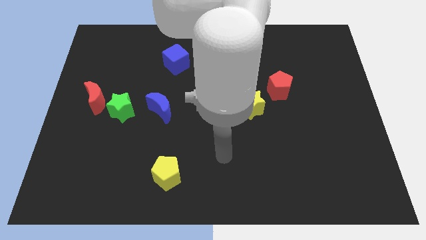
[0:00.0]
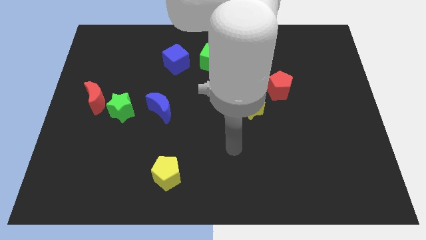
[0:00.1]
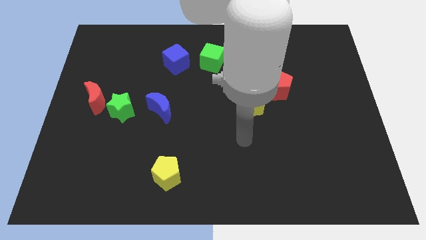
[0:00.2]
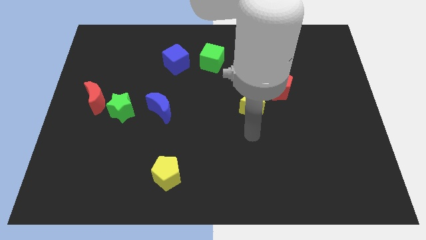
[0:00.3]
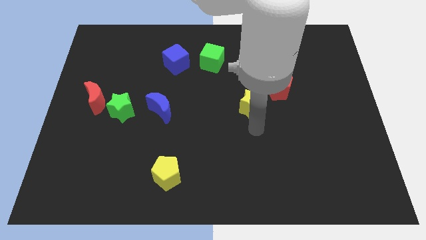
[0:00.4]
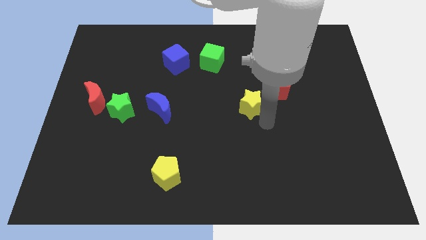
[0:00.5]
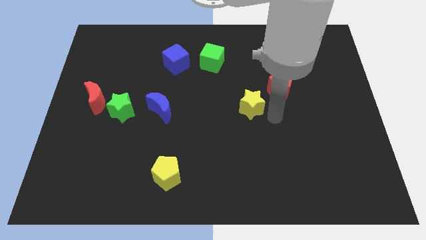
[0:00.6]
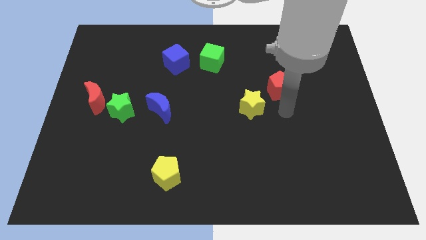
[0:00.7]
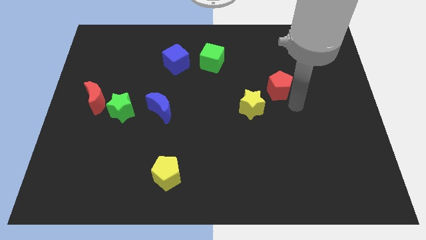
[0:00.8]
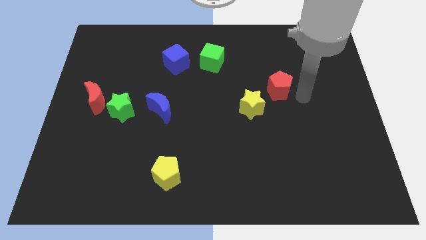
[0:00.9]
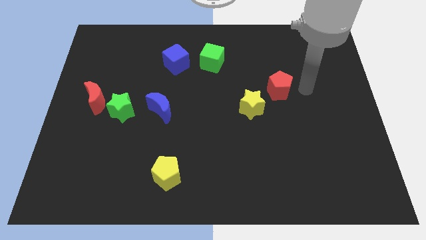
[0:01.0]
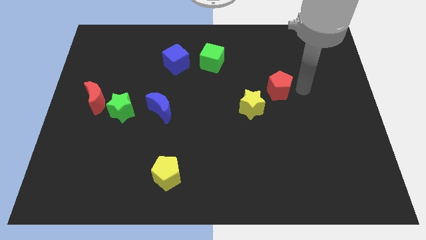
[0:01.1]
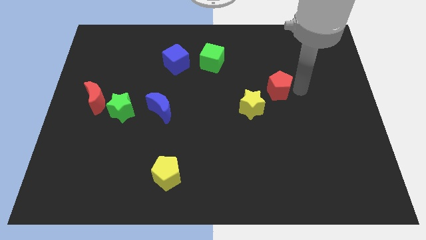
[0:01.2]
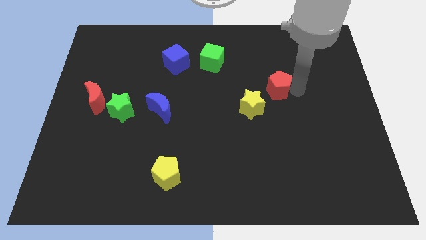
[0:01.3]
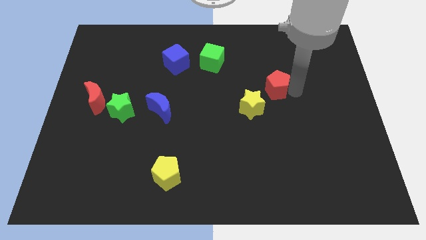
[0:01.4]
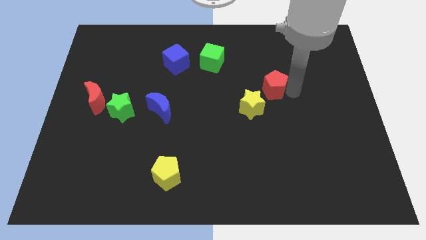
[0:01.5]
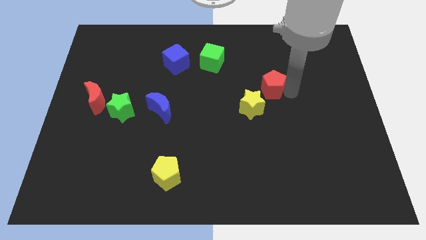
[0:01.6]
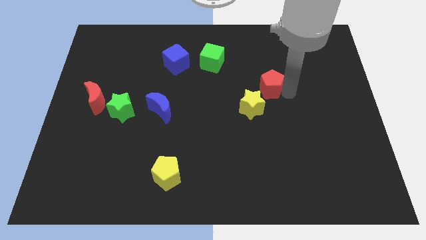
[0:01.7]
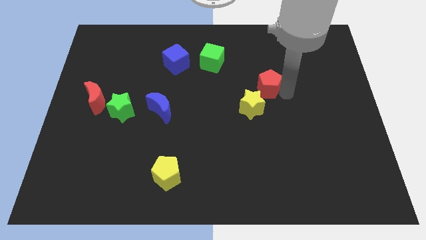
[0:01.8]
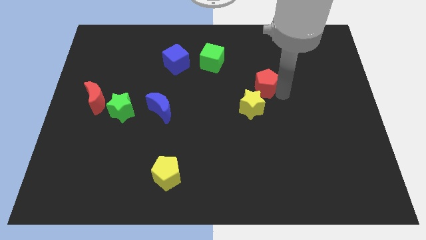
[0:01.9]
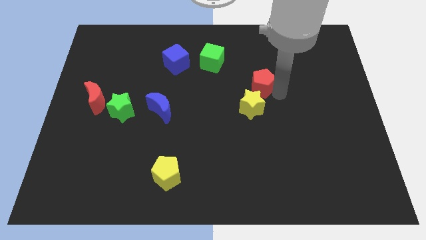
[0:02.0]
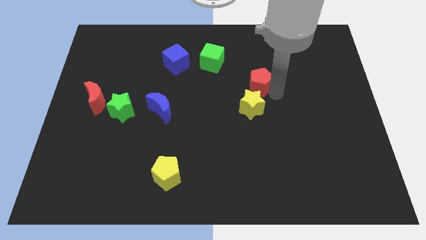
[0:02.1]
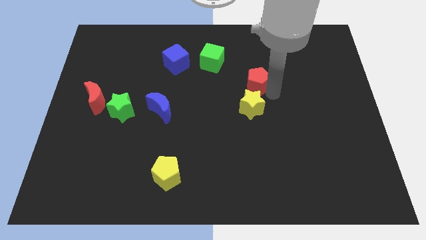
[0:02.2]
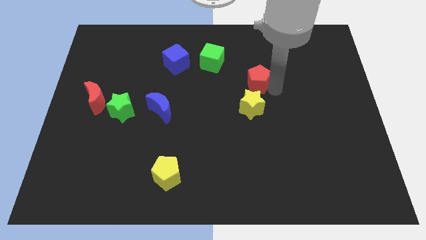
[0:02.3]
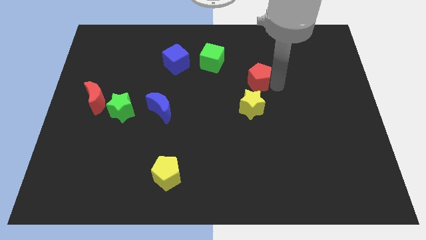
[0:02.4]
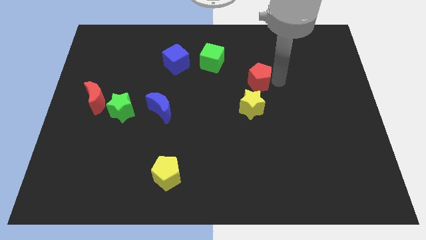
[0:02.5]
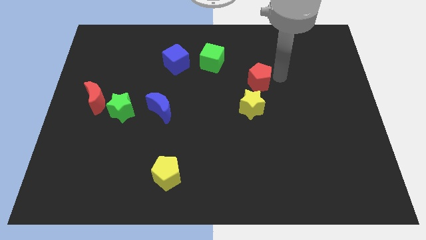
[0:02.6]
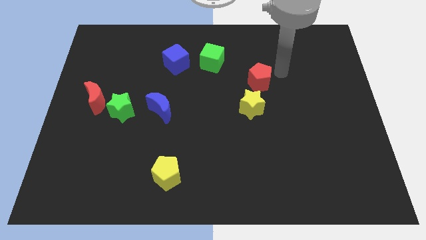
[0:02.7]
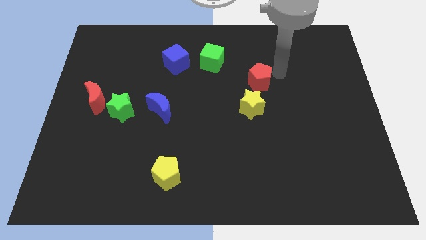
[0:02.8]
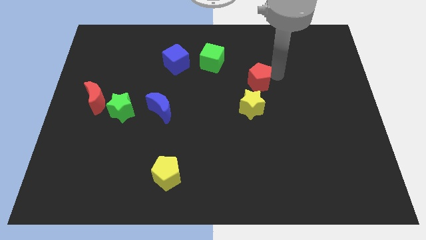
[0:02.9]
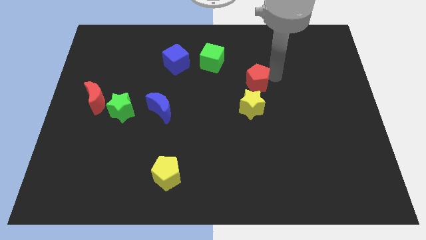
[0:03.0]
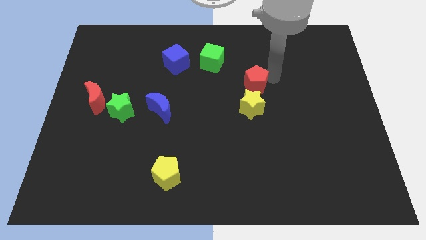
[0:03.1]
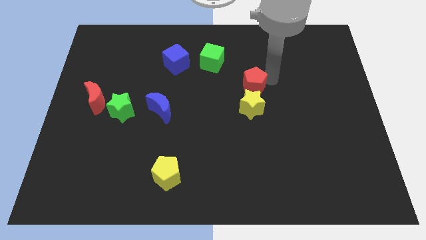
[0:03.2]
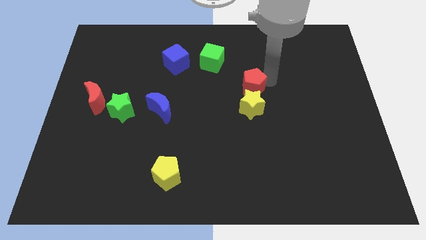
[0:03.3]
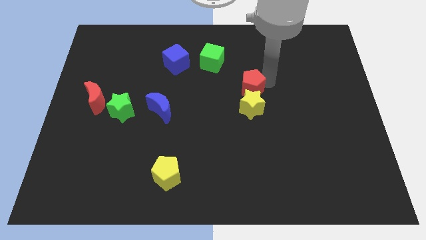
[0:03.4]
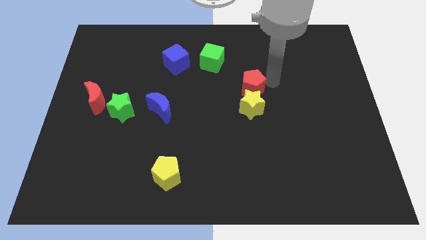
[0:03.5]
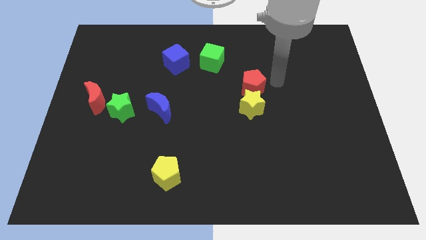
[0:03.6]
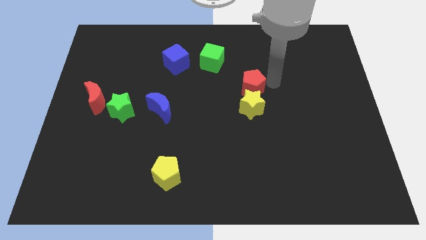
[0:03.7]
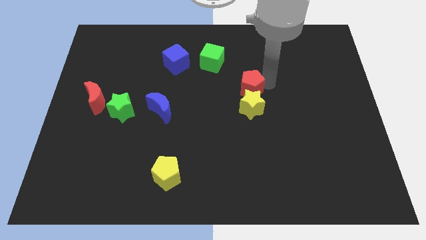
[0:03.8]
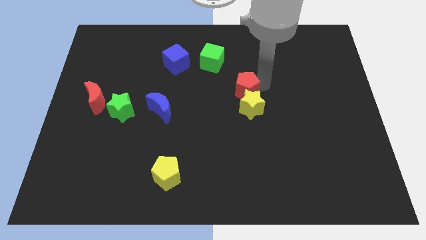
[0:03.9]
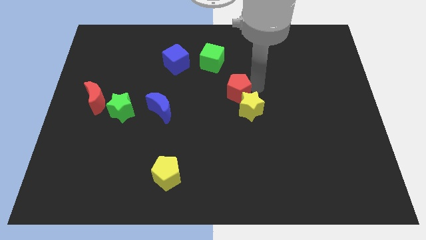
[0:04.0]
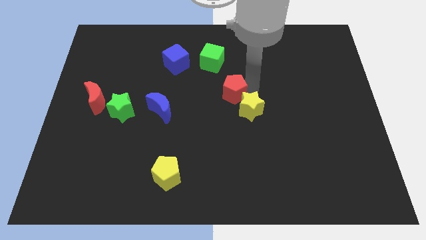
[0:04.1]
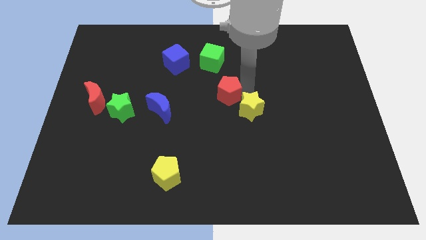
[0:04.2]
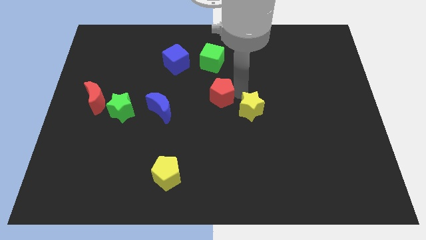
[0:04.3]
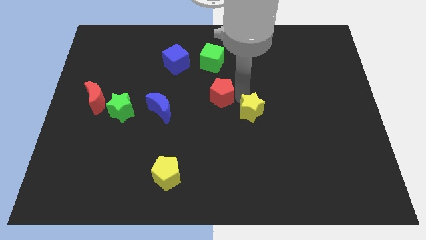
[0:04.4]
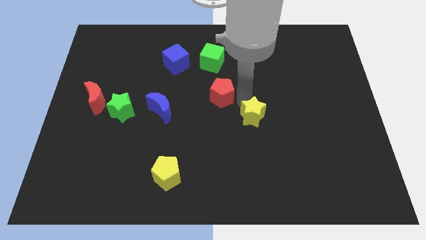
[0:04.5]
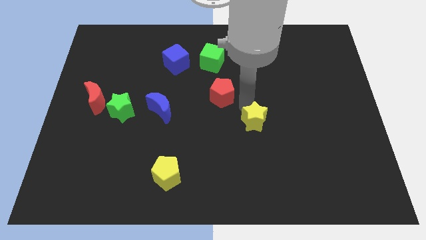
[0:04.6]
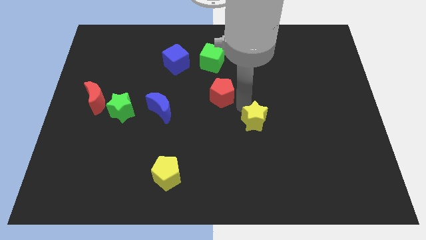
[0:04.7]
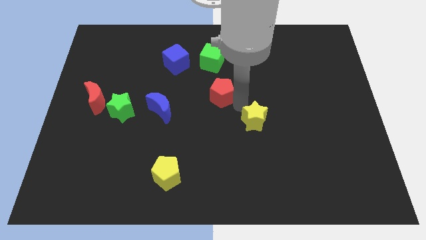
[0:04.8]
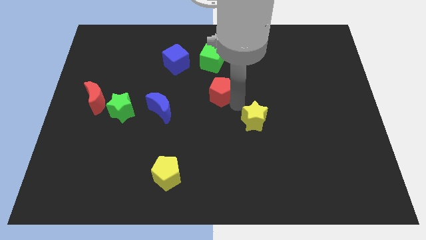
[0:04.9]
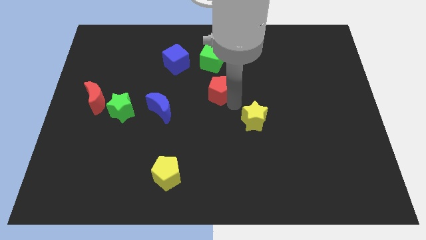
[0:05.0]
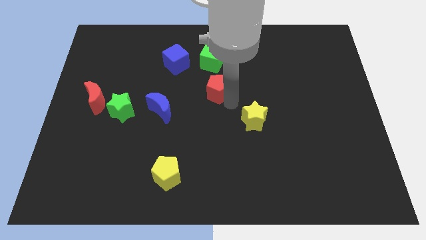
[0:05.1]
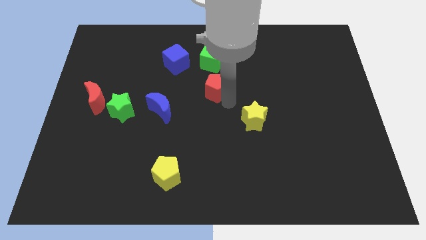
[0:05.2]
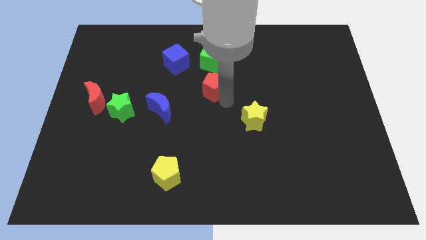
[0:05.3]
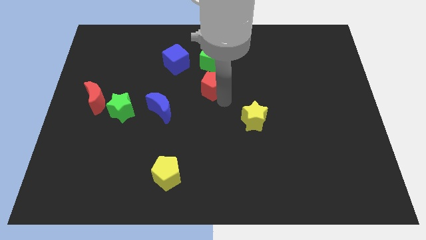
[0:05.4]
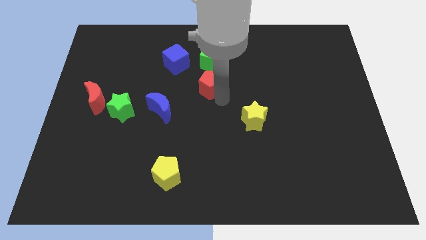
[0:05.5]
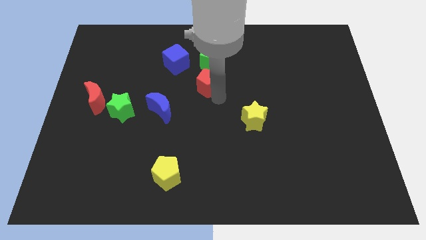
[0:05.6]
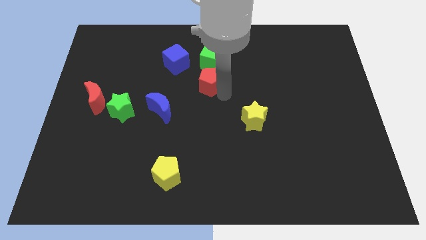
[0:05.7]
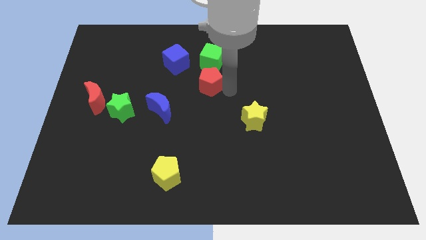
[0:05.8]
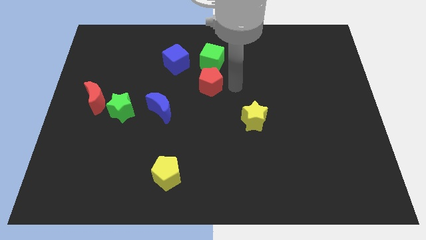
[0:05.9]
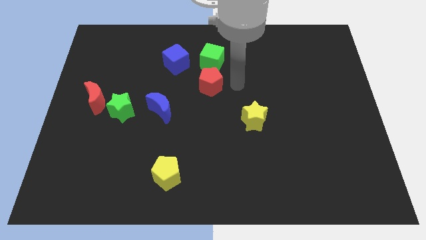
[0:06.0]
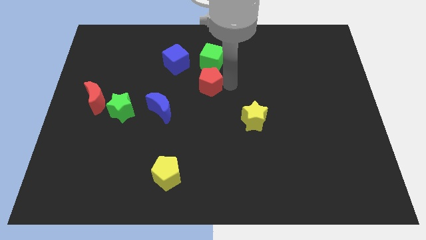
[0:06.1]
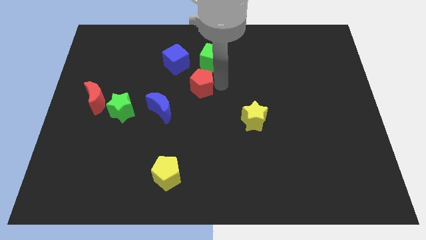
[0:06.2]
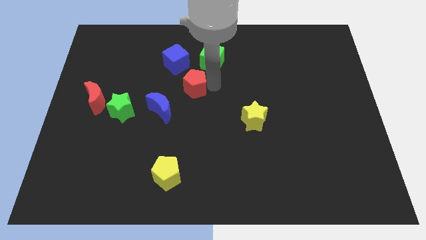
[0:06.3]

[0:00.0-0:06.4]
push the red pentagon to the left

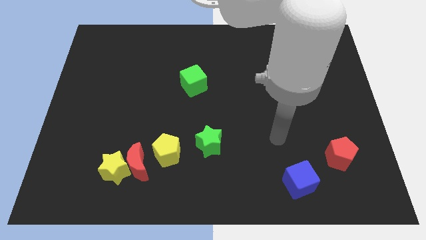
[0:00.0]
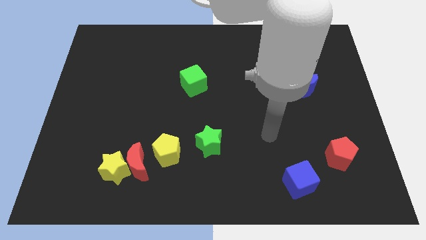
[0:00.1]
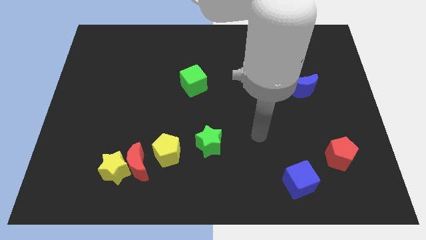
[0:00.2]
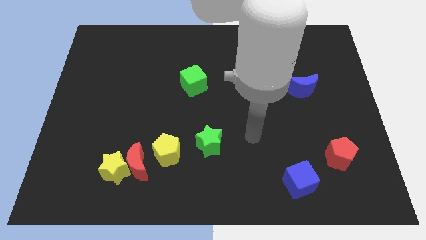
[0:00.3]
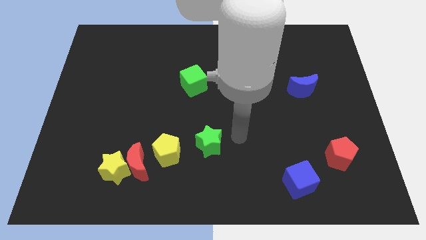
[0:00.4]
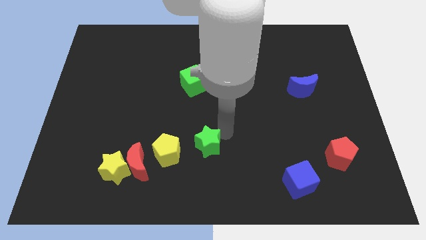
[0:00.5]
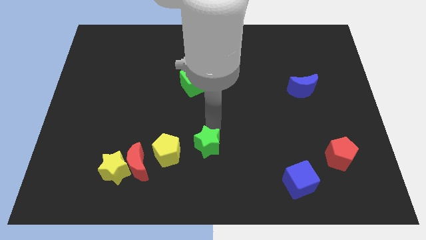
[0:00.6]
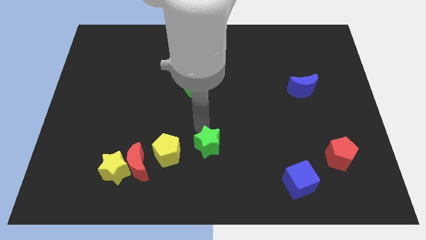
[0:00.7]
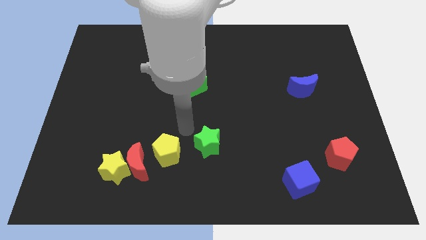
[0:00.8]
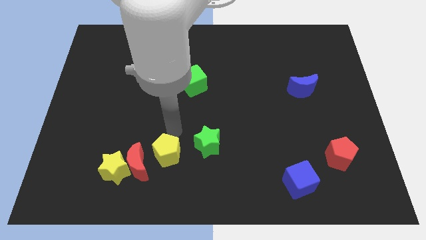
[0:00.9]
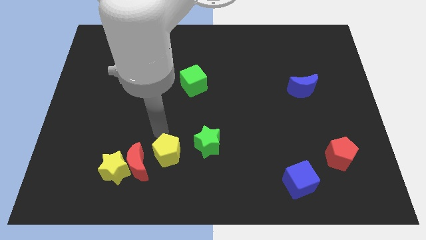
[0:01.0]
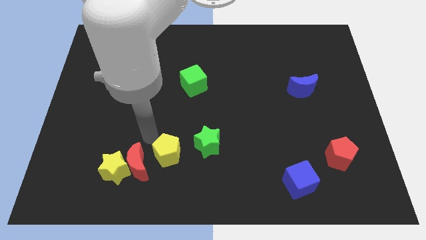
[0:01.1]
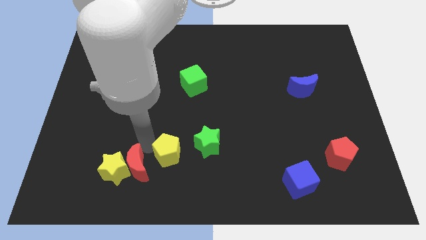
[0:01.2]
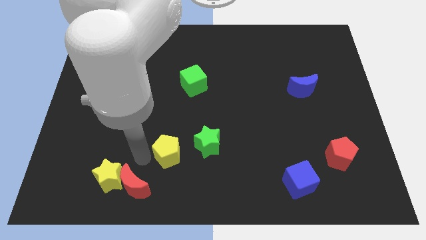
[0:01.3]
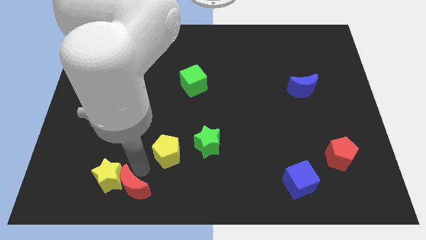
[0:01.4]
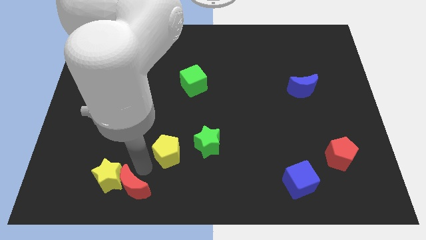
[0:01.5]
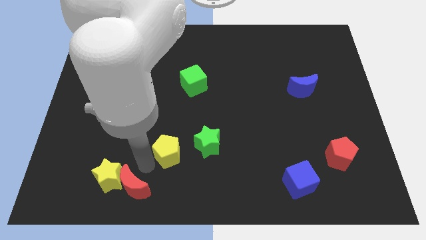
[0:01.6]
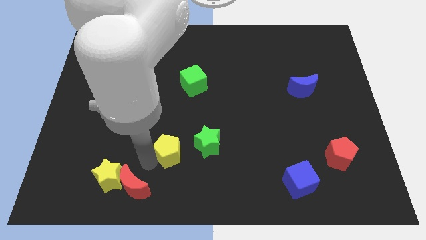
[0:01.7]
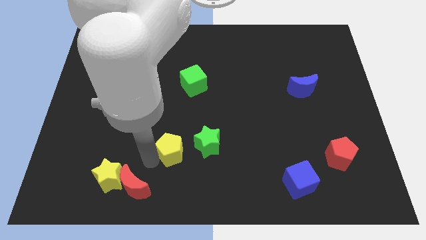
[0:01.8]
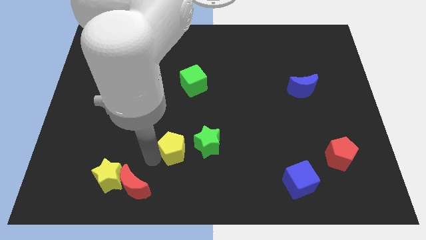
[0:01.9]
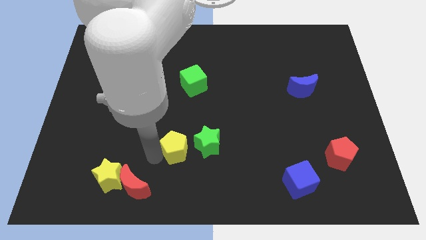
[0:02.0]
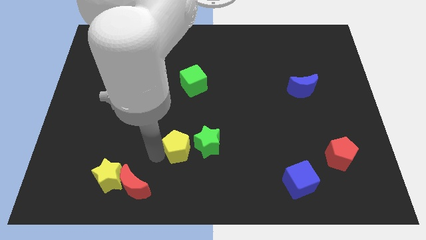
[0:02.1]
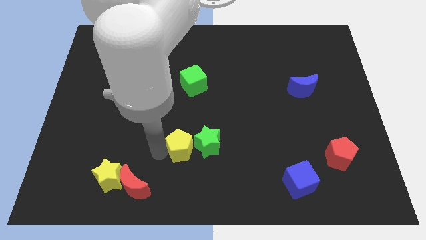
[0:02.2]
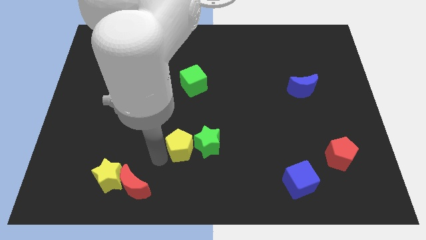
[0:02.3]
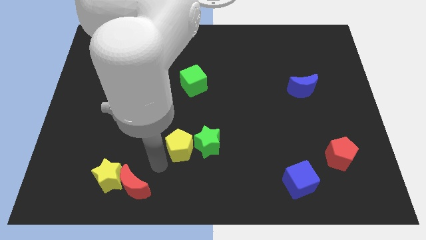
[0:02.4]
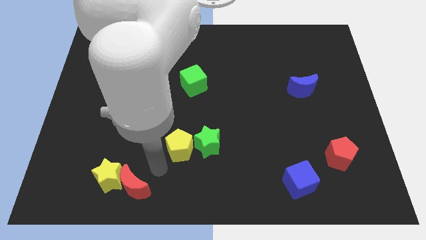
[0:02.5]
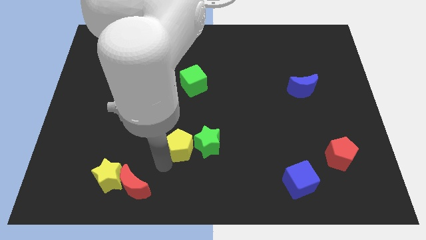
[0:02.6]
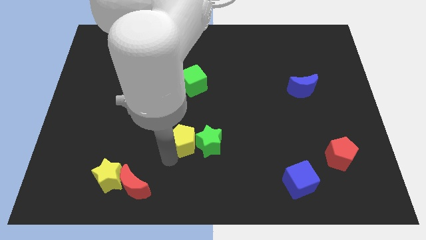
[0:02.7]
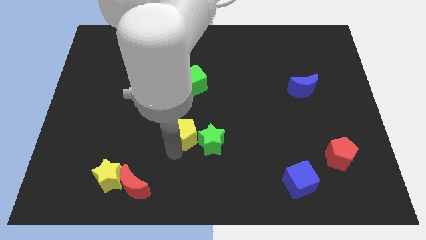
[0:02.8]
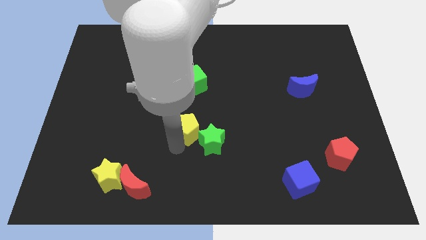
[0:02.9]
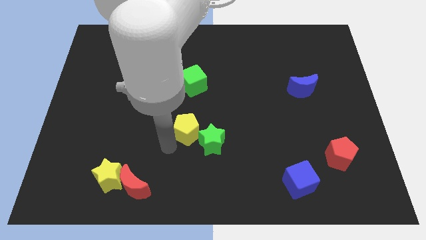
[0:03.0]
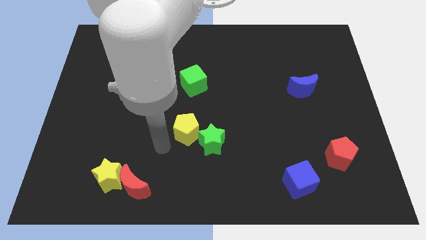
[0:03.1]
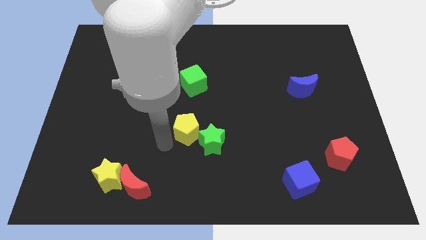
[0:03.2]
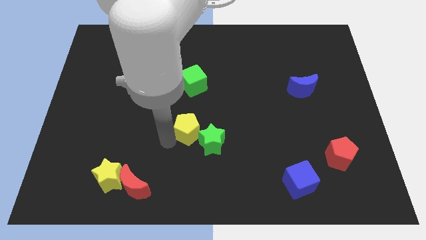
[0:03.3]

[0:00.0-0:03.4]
slide the yellow pentagon slightly upwards and right
